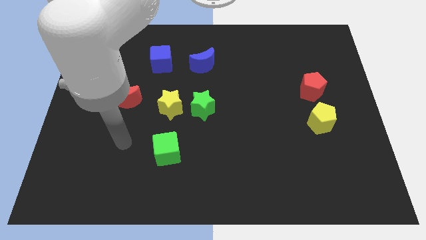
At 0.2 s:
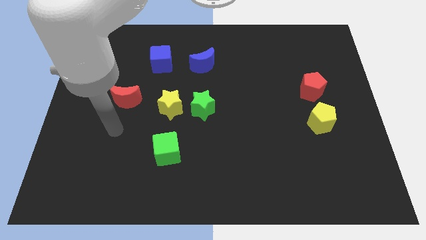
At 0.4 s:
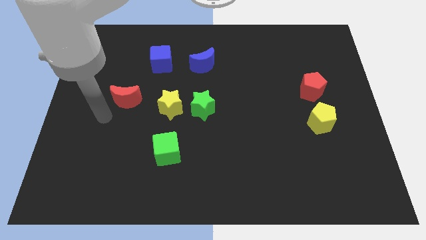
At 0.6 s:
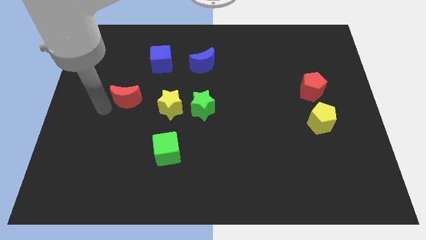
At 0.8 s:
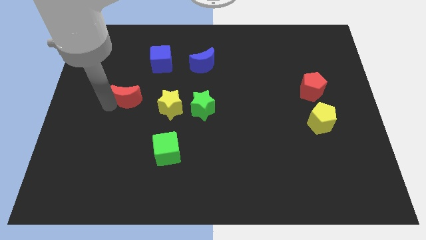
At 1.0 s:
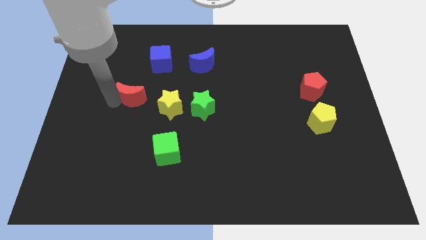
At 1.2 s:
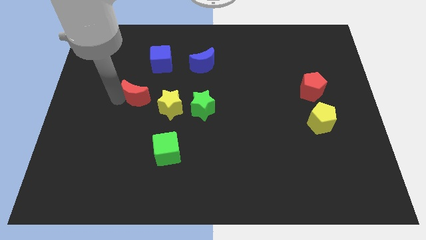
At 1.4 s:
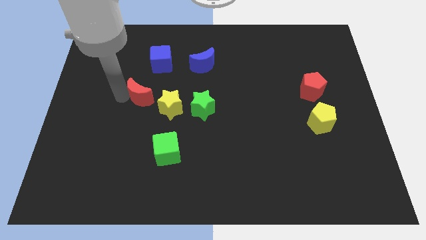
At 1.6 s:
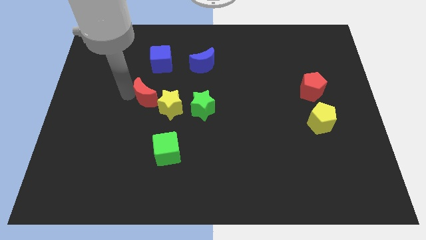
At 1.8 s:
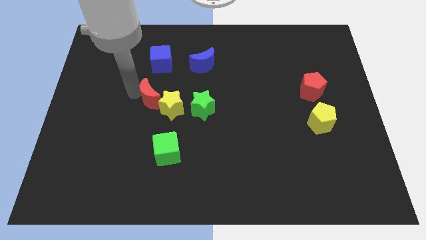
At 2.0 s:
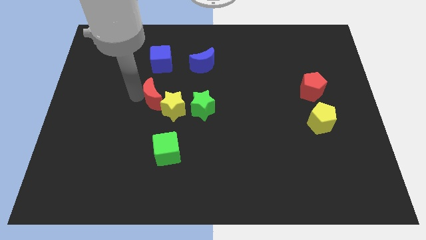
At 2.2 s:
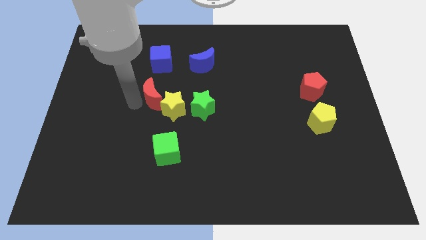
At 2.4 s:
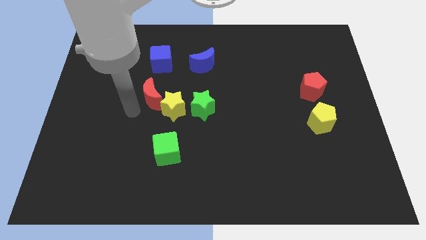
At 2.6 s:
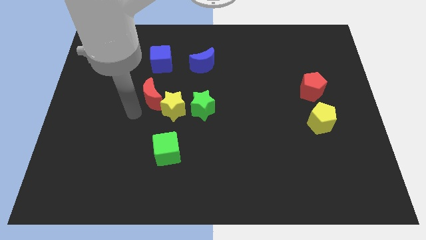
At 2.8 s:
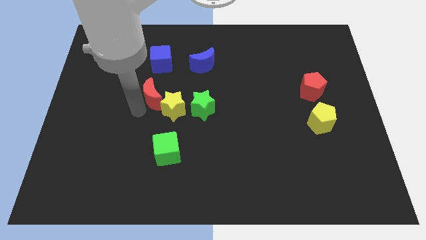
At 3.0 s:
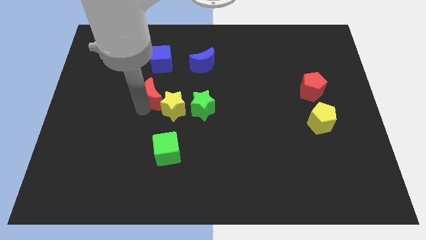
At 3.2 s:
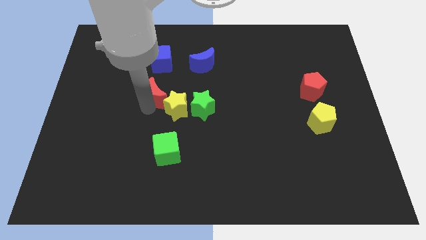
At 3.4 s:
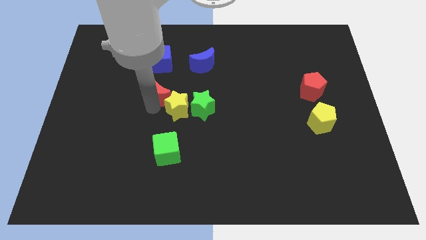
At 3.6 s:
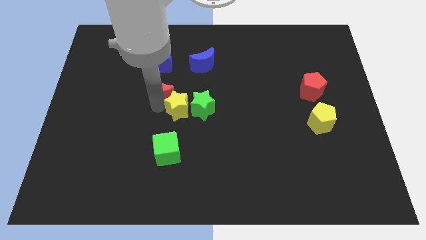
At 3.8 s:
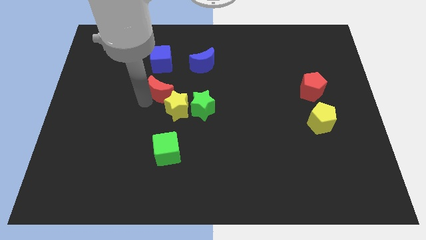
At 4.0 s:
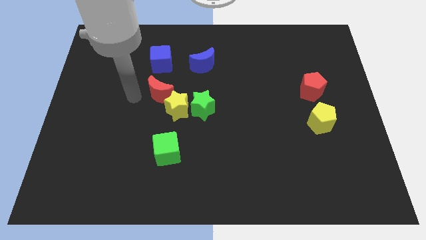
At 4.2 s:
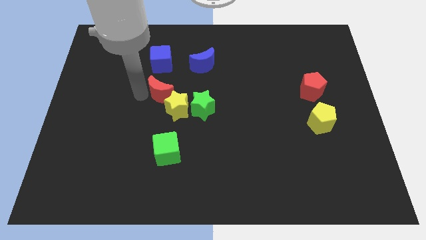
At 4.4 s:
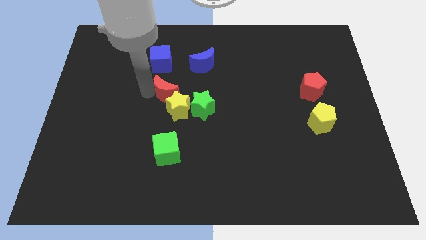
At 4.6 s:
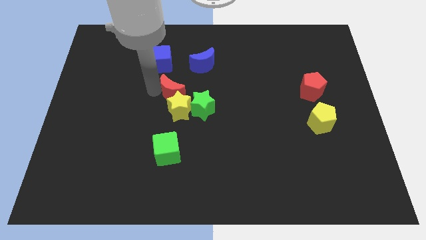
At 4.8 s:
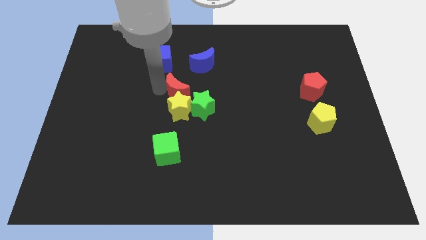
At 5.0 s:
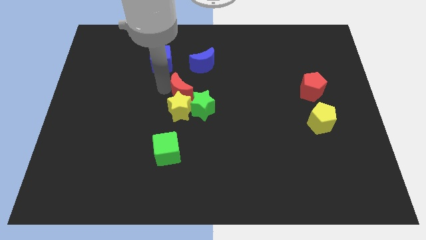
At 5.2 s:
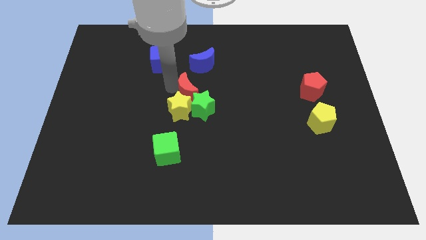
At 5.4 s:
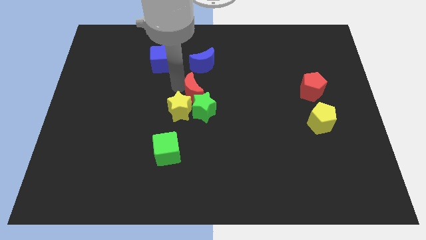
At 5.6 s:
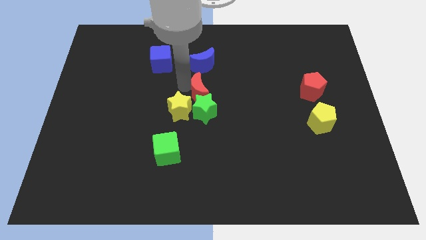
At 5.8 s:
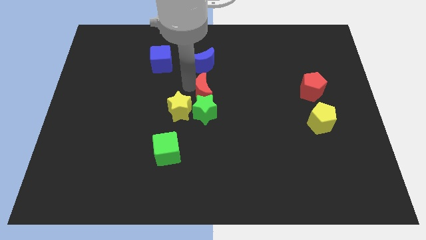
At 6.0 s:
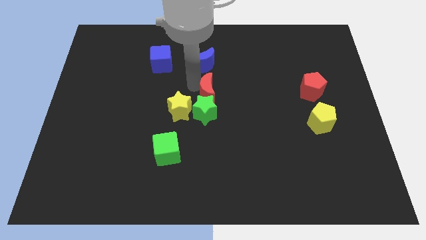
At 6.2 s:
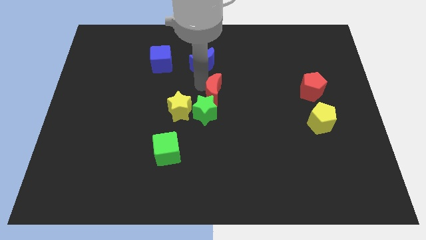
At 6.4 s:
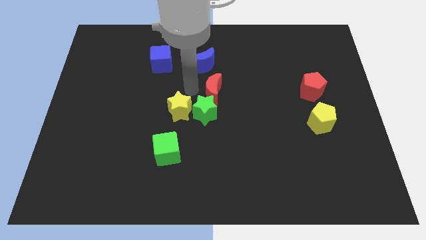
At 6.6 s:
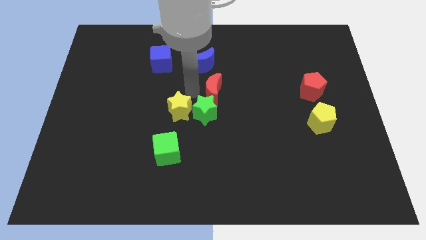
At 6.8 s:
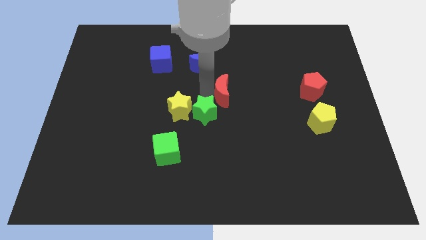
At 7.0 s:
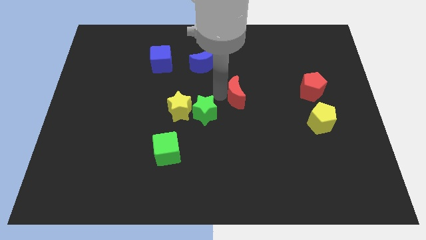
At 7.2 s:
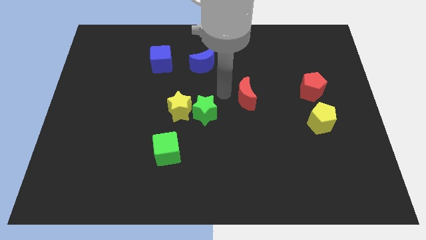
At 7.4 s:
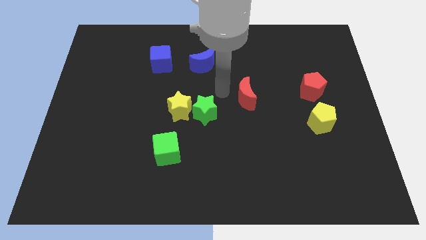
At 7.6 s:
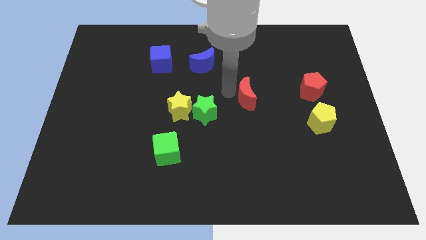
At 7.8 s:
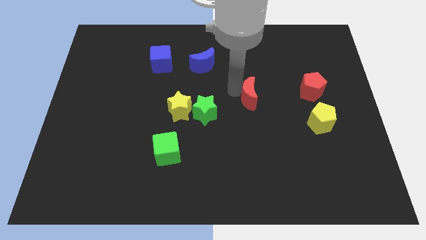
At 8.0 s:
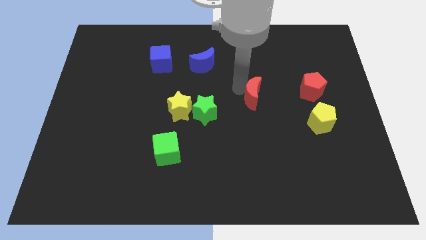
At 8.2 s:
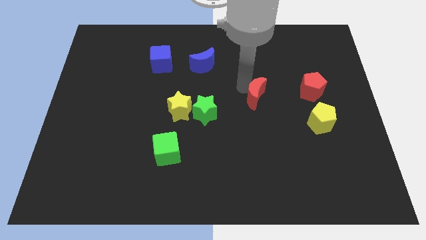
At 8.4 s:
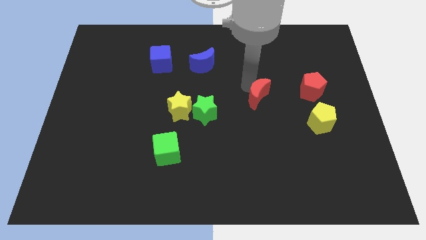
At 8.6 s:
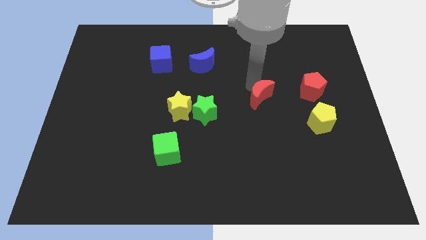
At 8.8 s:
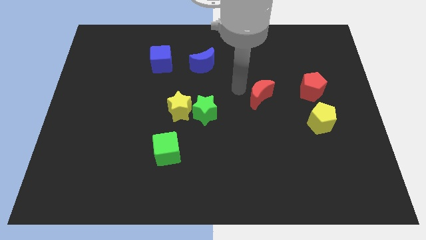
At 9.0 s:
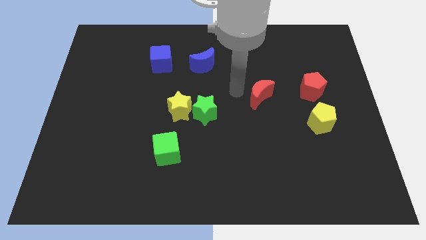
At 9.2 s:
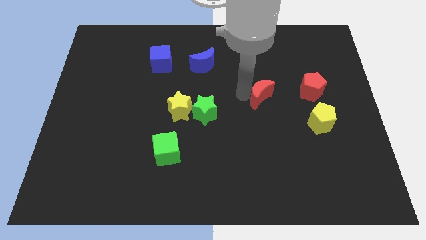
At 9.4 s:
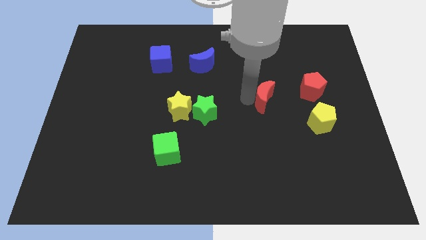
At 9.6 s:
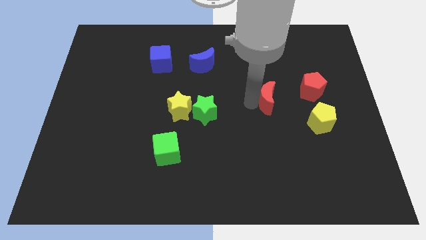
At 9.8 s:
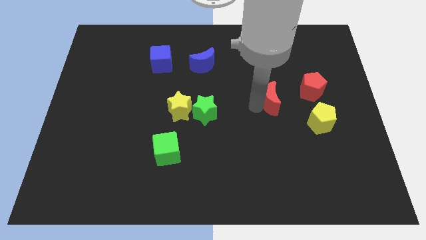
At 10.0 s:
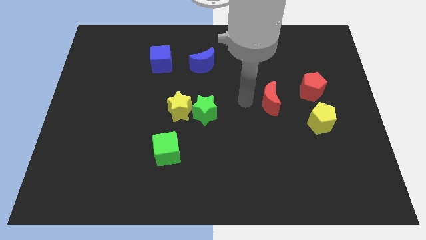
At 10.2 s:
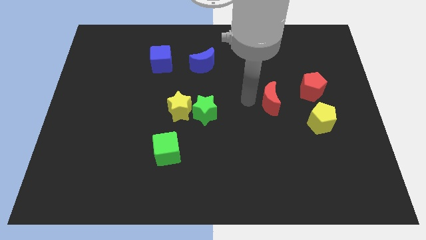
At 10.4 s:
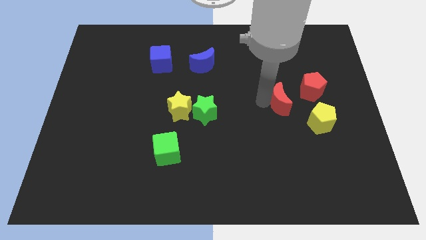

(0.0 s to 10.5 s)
push the red moon to the top left side of the yellow pentagon

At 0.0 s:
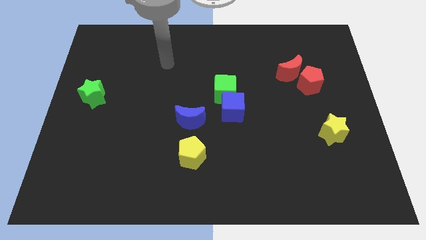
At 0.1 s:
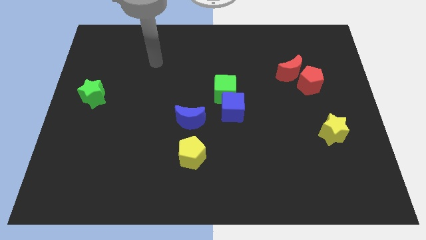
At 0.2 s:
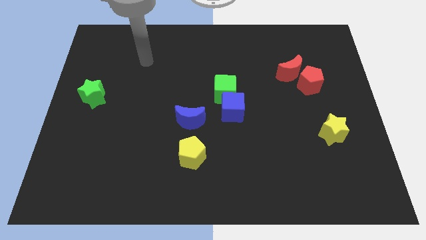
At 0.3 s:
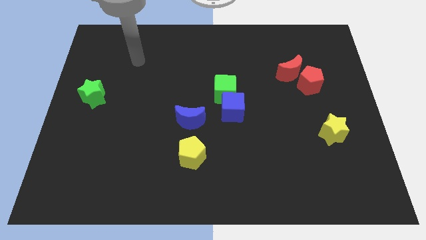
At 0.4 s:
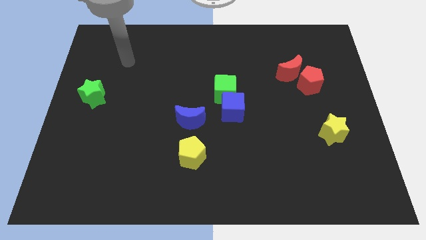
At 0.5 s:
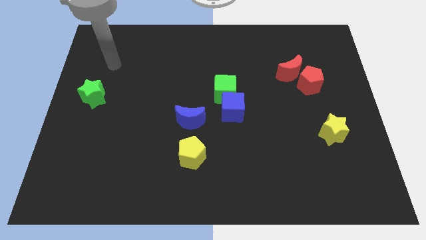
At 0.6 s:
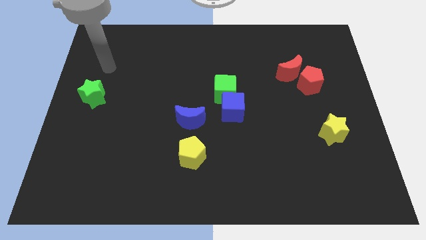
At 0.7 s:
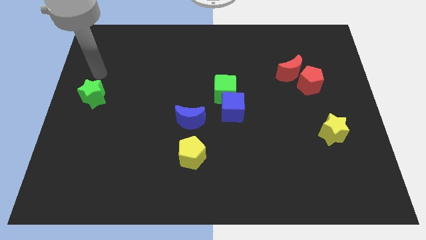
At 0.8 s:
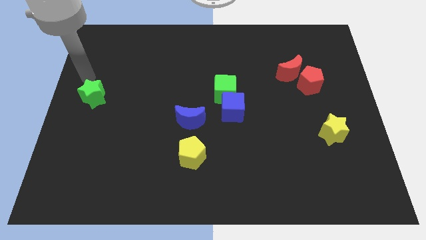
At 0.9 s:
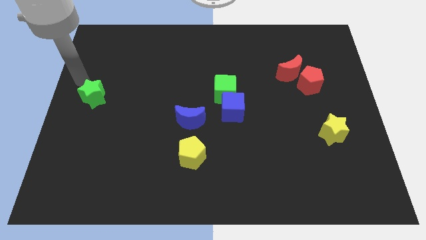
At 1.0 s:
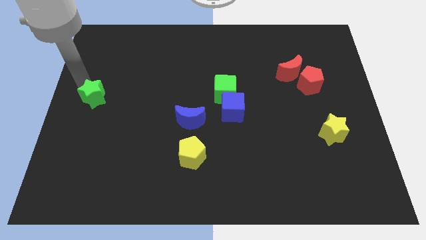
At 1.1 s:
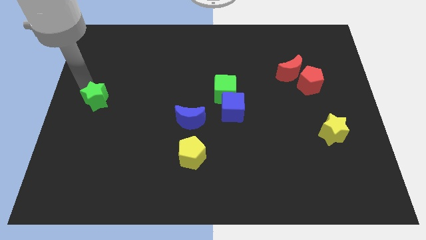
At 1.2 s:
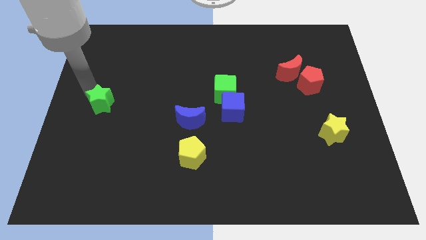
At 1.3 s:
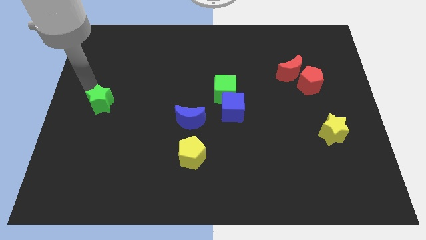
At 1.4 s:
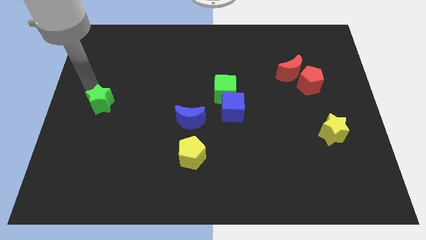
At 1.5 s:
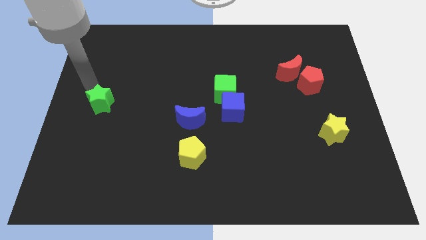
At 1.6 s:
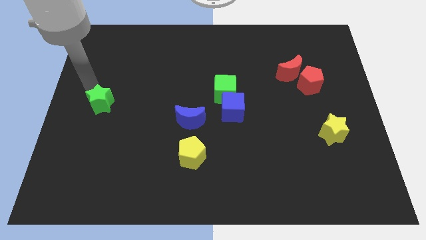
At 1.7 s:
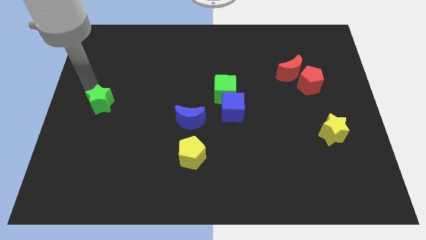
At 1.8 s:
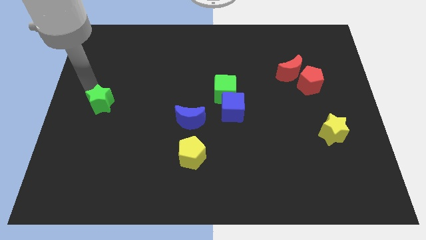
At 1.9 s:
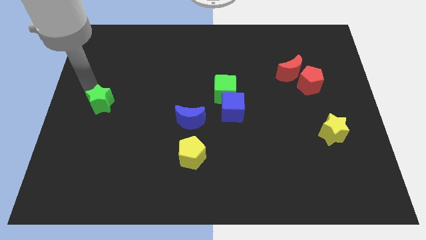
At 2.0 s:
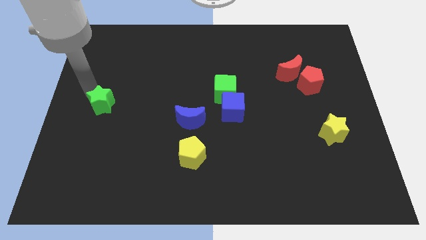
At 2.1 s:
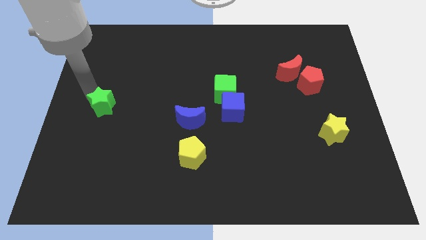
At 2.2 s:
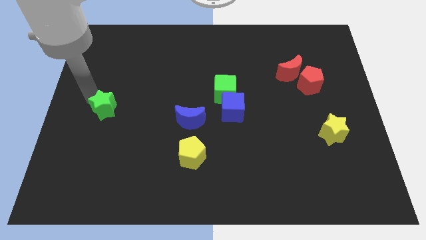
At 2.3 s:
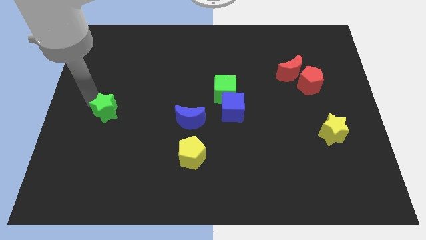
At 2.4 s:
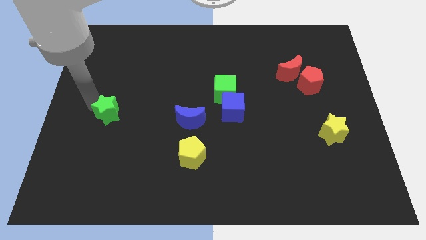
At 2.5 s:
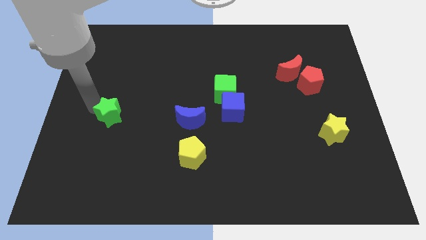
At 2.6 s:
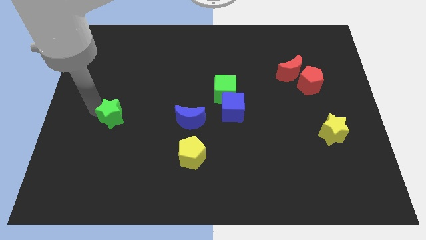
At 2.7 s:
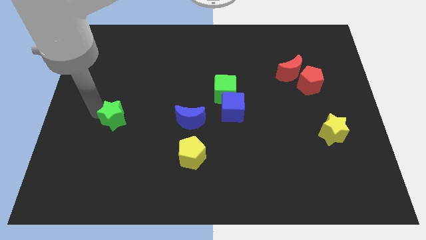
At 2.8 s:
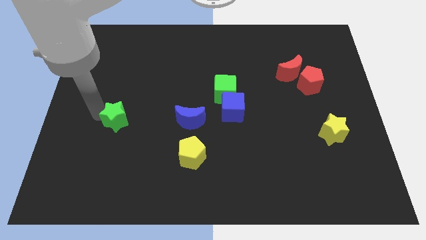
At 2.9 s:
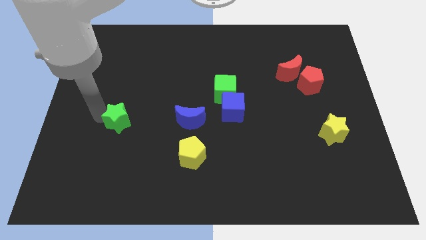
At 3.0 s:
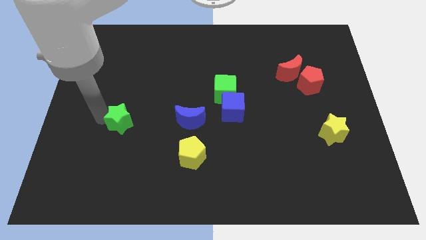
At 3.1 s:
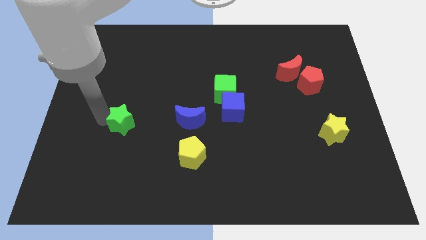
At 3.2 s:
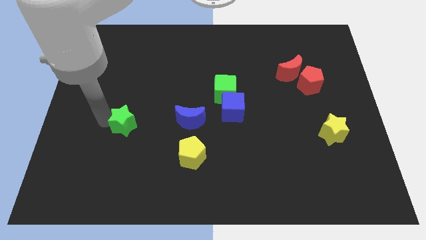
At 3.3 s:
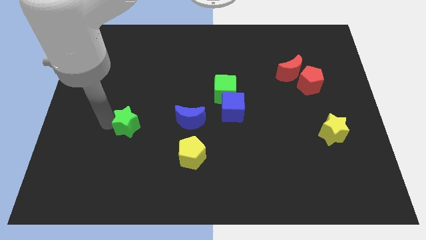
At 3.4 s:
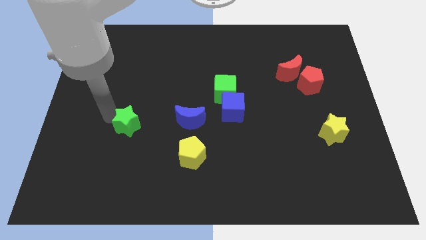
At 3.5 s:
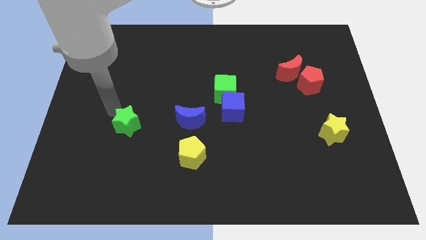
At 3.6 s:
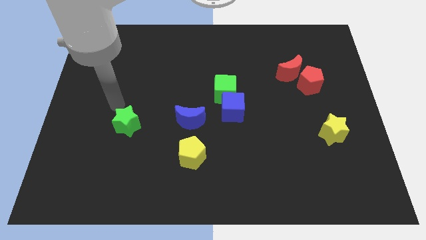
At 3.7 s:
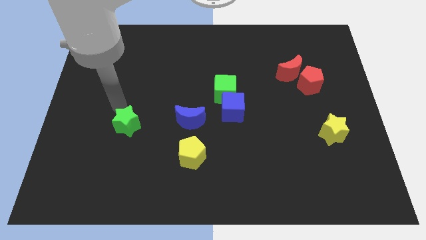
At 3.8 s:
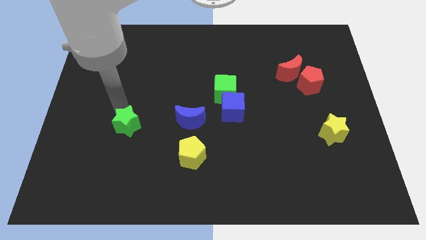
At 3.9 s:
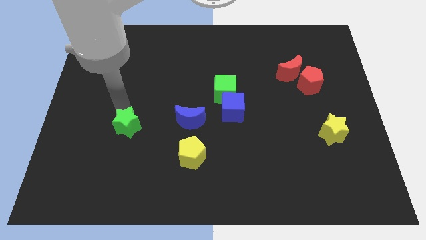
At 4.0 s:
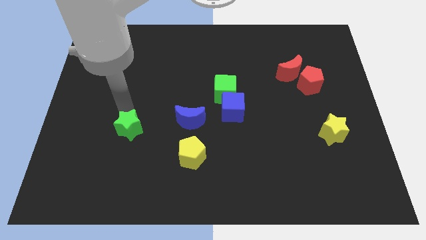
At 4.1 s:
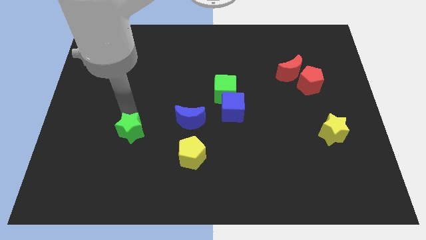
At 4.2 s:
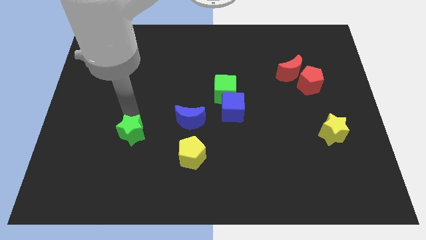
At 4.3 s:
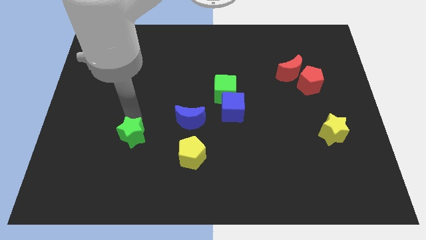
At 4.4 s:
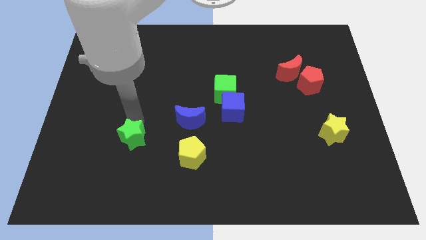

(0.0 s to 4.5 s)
push the green star left of the yellow pentagon
